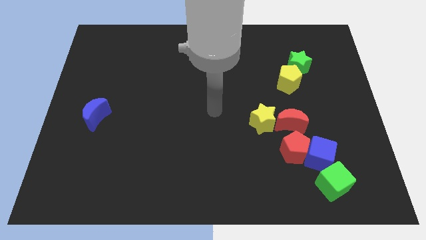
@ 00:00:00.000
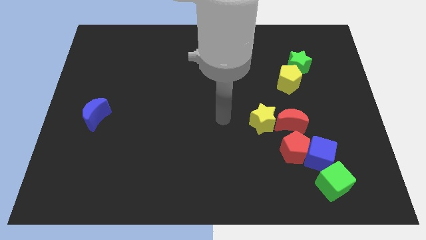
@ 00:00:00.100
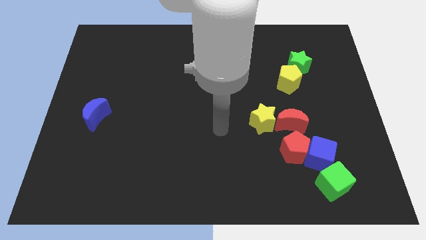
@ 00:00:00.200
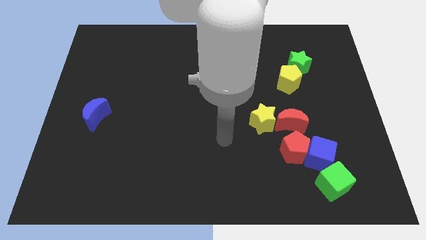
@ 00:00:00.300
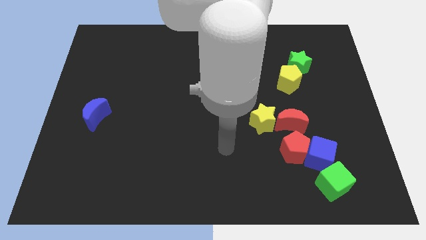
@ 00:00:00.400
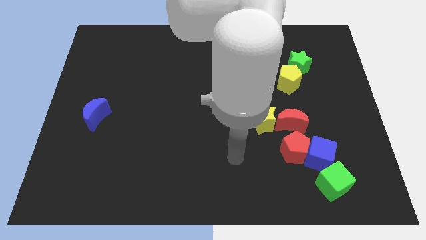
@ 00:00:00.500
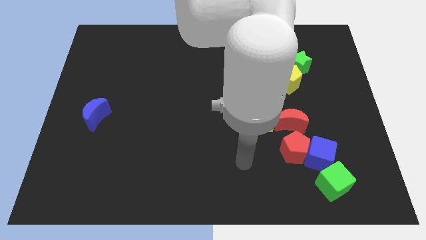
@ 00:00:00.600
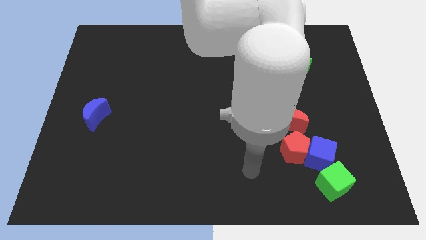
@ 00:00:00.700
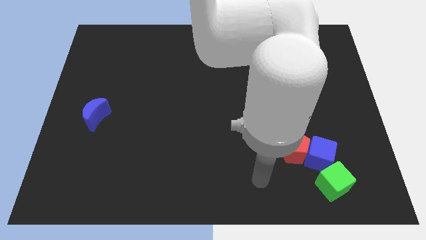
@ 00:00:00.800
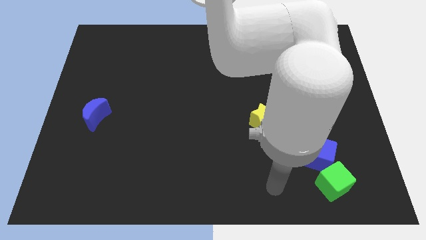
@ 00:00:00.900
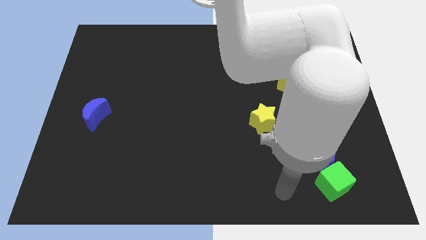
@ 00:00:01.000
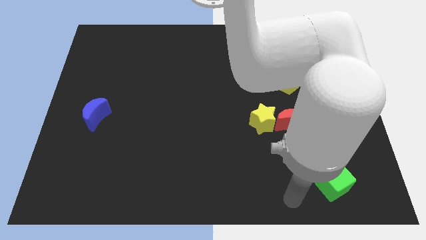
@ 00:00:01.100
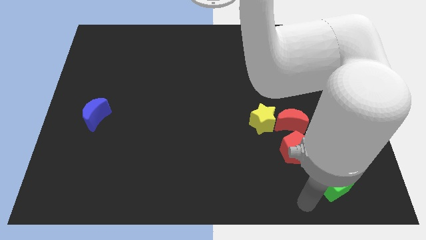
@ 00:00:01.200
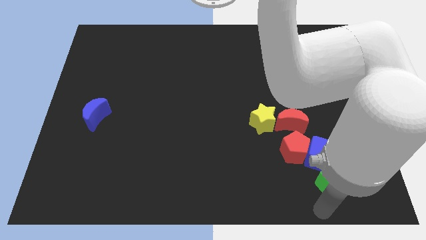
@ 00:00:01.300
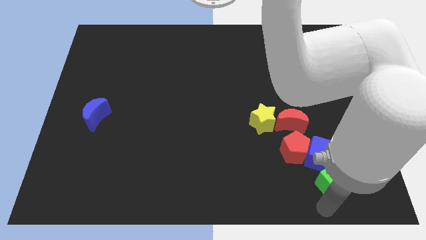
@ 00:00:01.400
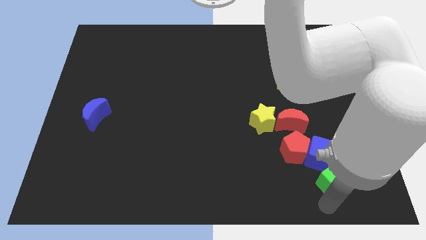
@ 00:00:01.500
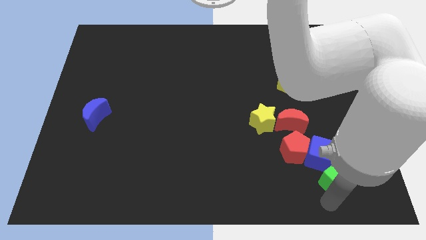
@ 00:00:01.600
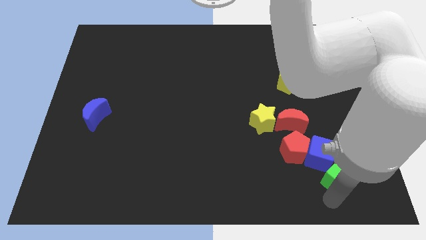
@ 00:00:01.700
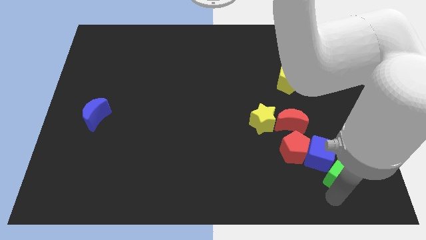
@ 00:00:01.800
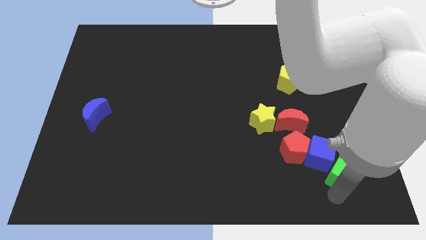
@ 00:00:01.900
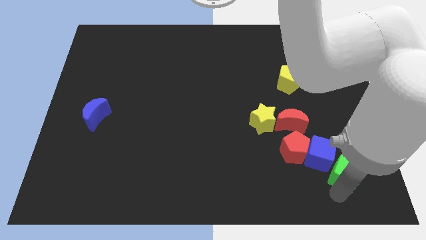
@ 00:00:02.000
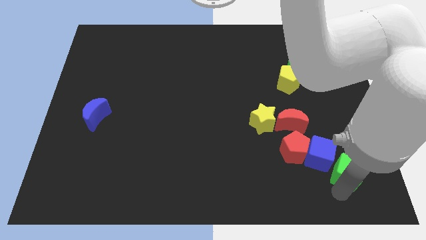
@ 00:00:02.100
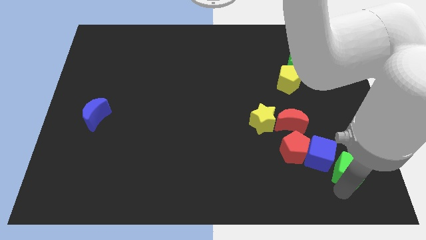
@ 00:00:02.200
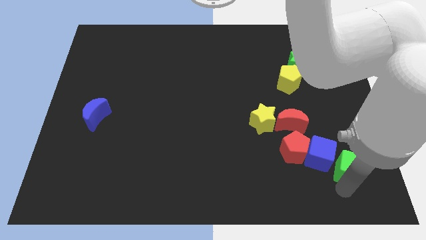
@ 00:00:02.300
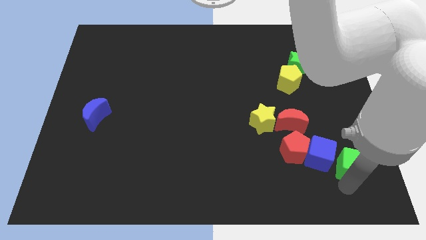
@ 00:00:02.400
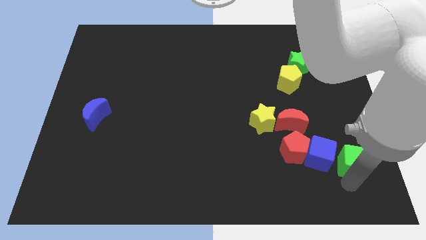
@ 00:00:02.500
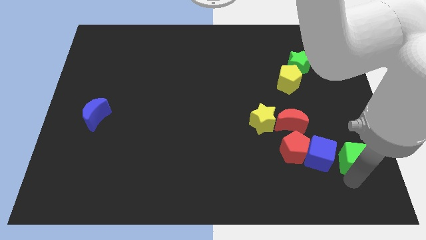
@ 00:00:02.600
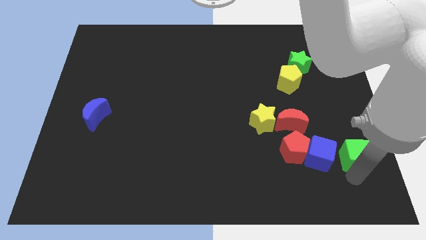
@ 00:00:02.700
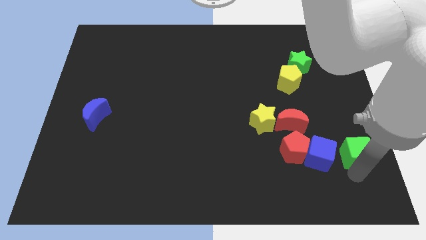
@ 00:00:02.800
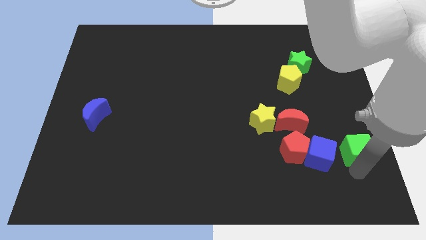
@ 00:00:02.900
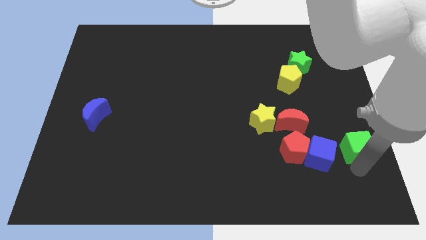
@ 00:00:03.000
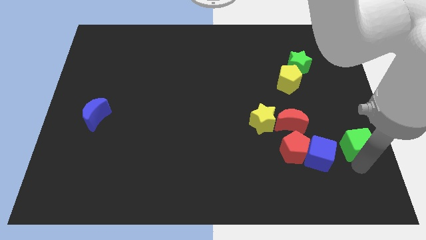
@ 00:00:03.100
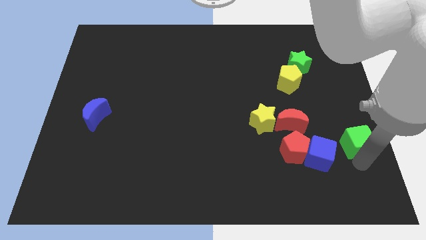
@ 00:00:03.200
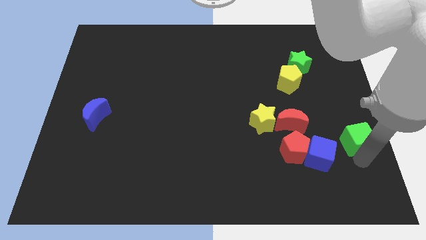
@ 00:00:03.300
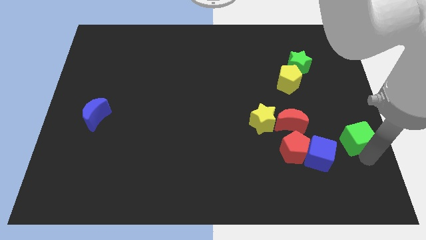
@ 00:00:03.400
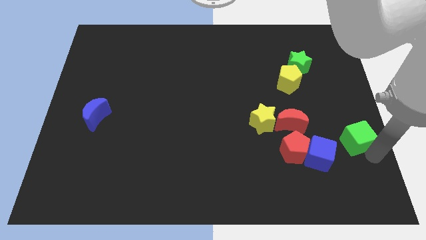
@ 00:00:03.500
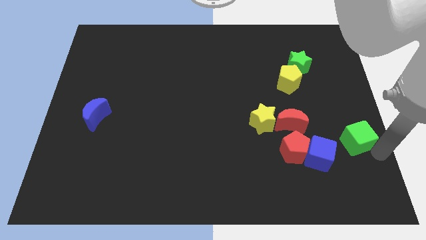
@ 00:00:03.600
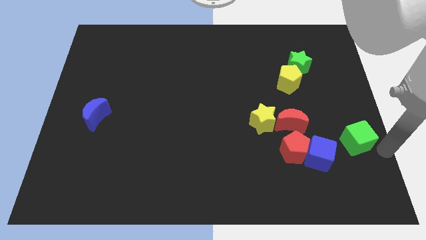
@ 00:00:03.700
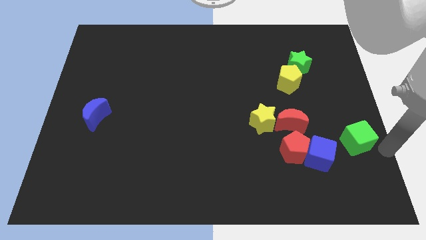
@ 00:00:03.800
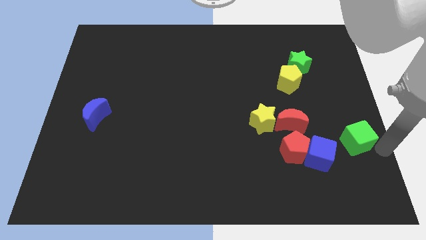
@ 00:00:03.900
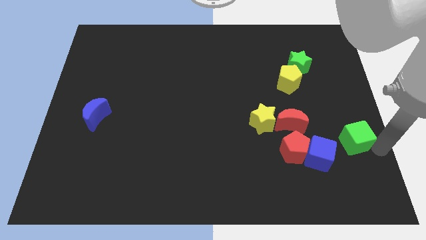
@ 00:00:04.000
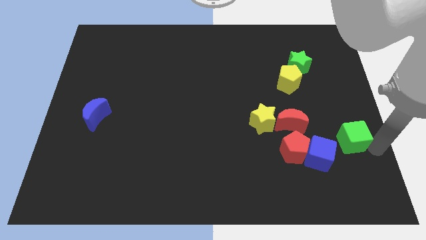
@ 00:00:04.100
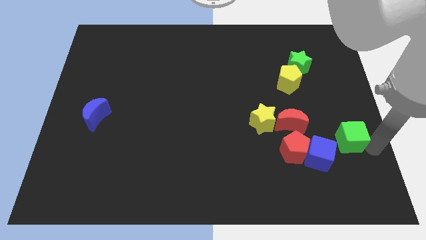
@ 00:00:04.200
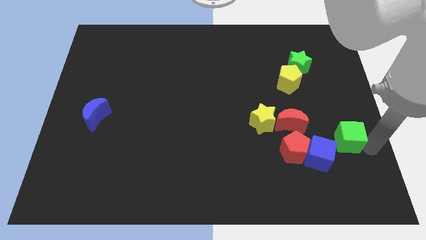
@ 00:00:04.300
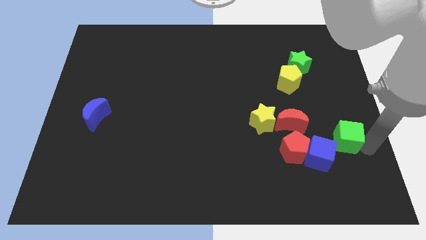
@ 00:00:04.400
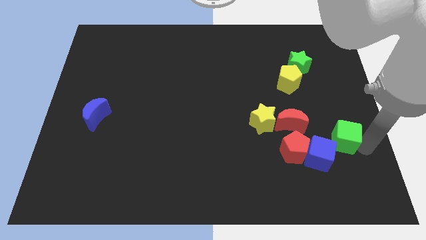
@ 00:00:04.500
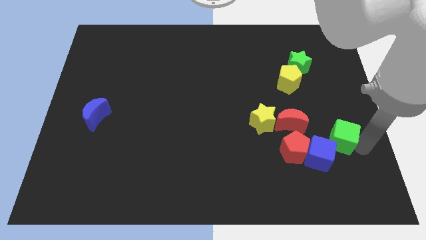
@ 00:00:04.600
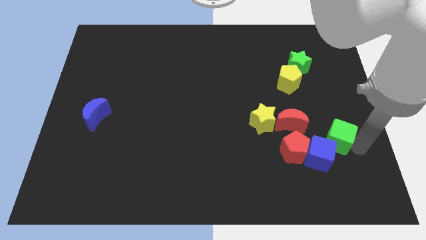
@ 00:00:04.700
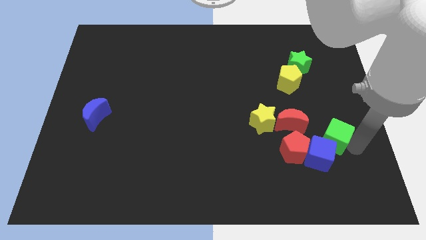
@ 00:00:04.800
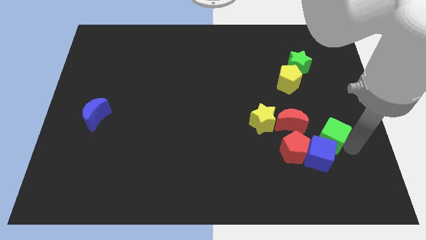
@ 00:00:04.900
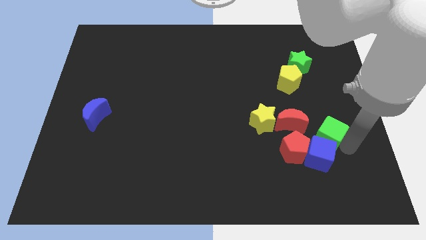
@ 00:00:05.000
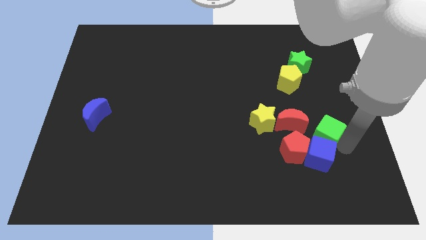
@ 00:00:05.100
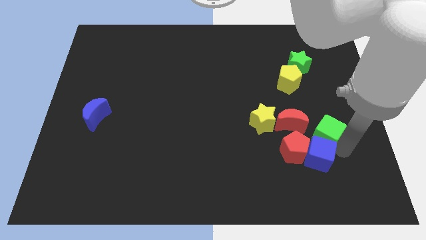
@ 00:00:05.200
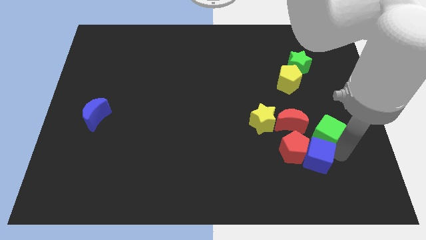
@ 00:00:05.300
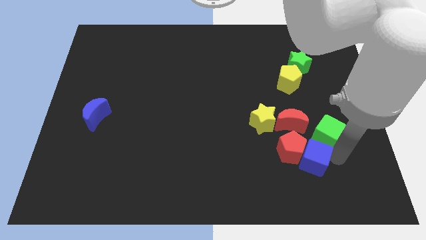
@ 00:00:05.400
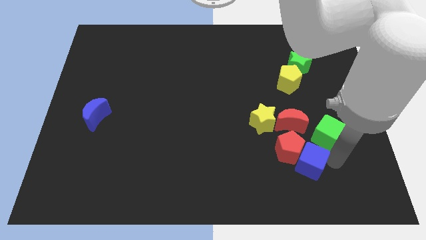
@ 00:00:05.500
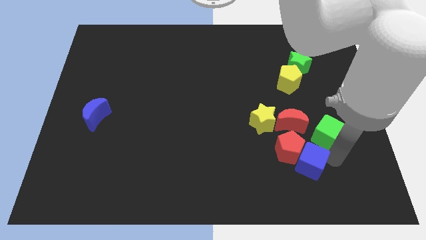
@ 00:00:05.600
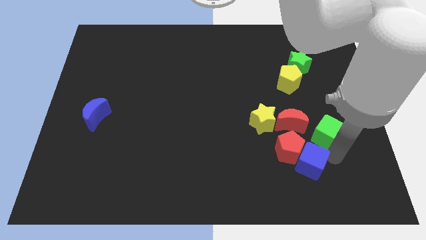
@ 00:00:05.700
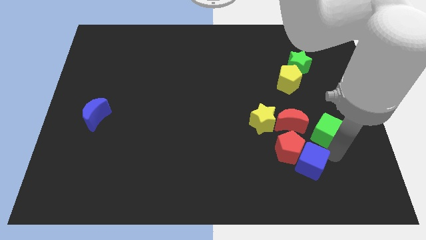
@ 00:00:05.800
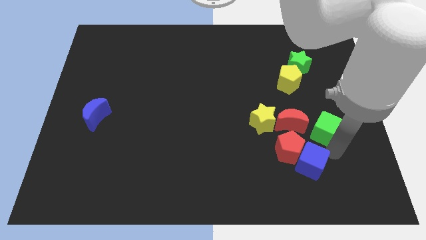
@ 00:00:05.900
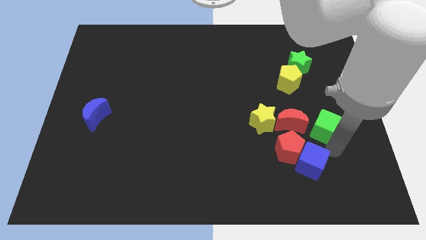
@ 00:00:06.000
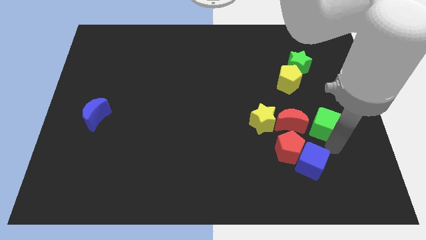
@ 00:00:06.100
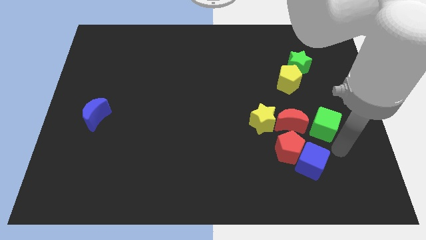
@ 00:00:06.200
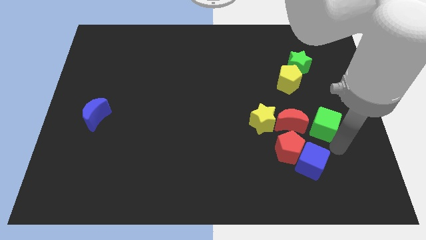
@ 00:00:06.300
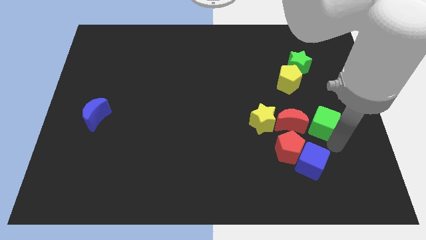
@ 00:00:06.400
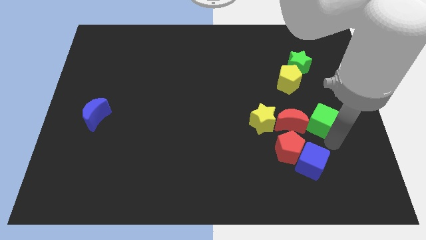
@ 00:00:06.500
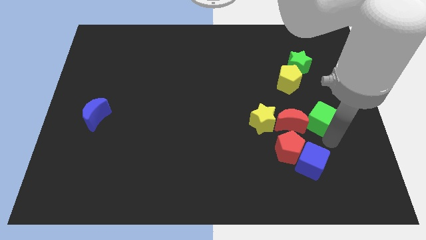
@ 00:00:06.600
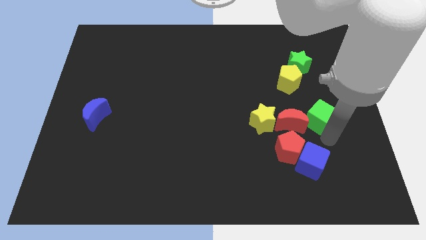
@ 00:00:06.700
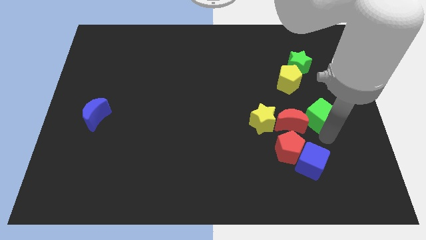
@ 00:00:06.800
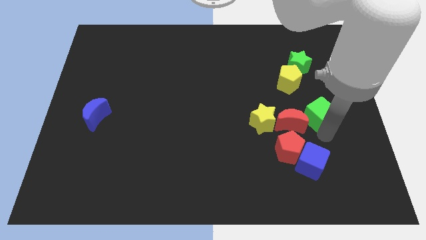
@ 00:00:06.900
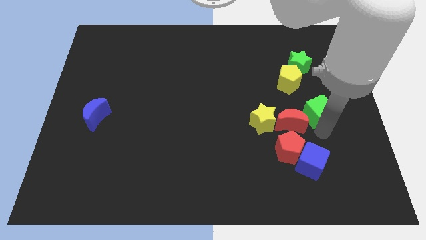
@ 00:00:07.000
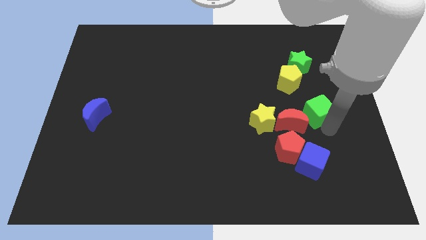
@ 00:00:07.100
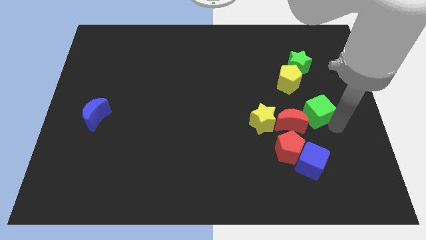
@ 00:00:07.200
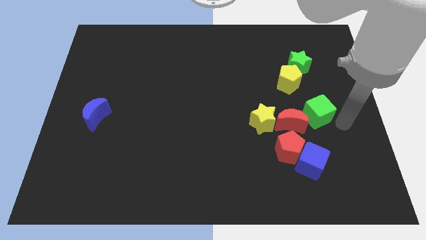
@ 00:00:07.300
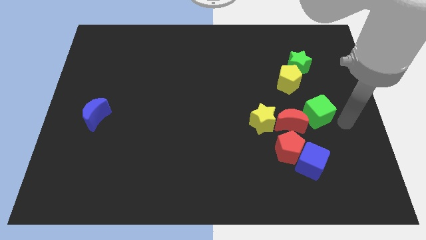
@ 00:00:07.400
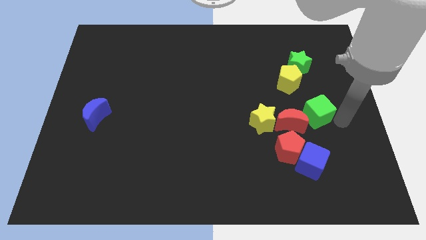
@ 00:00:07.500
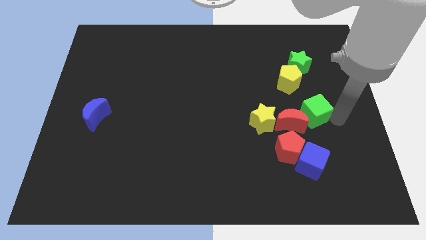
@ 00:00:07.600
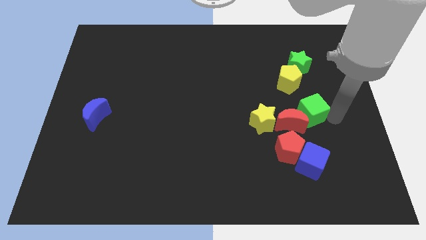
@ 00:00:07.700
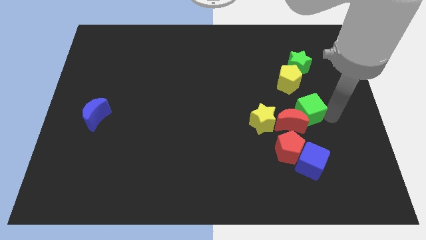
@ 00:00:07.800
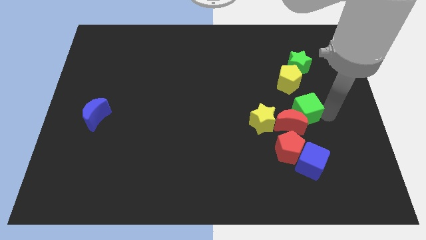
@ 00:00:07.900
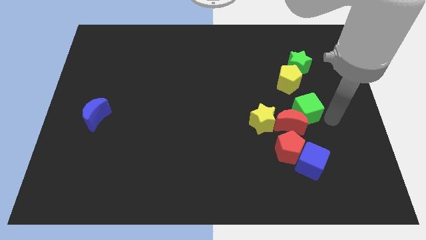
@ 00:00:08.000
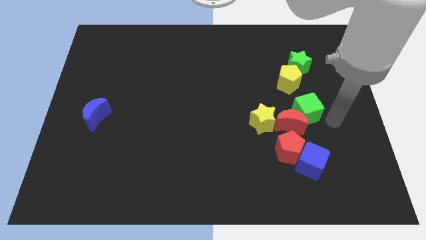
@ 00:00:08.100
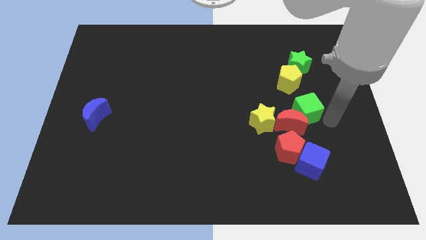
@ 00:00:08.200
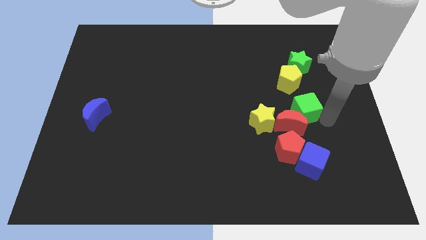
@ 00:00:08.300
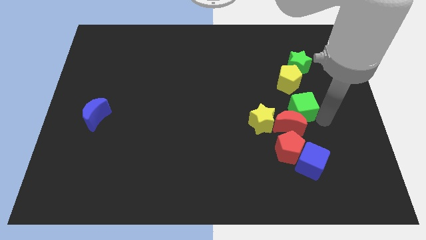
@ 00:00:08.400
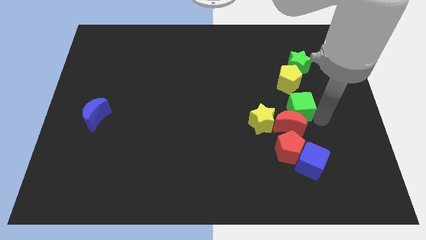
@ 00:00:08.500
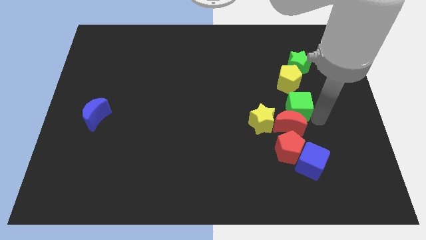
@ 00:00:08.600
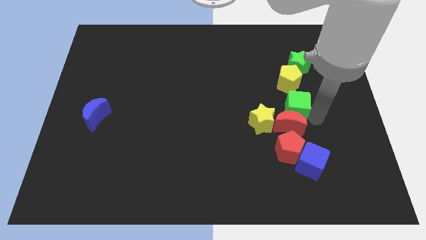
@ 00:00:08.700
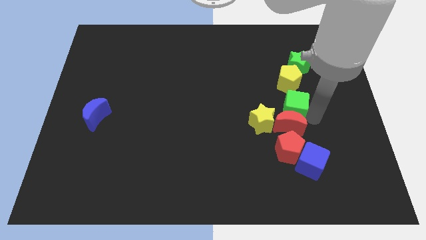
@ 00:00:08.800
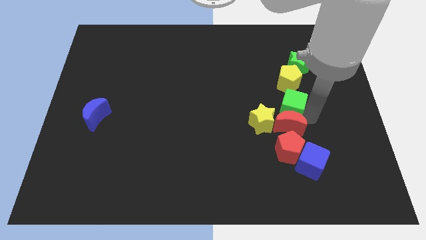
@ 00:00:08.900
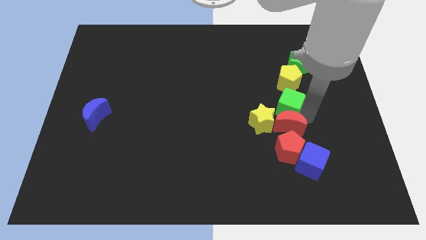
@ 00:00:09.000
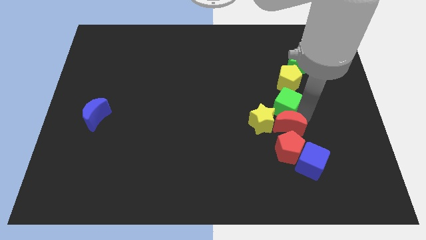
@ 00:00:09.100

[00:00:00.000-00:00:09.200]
put the green cube to the bottom left side of the yellow pentagon
